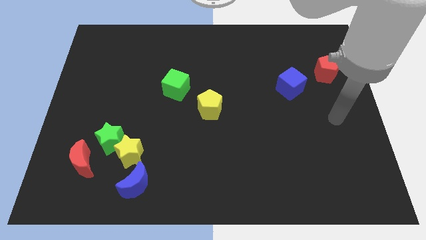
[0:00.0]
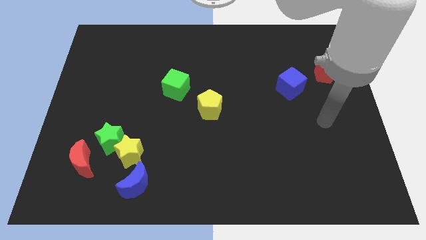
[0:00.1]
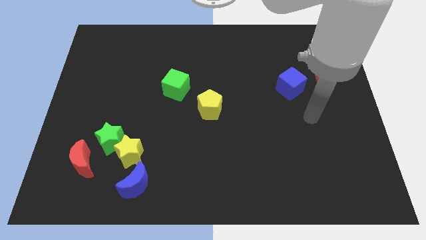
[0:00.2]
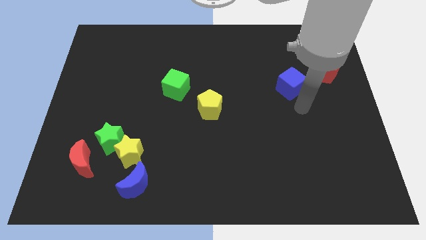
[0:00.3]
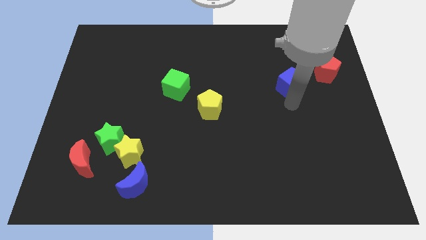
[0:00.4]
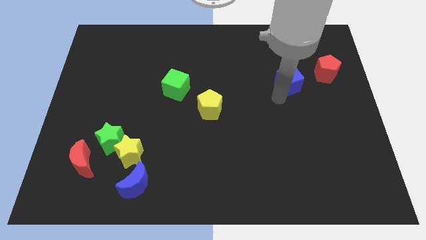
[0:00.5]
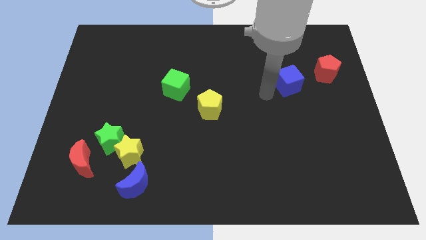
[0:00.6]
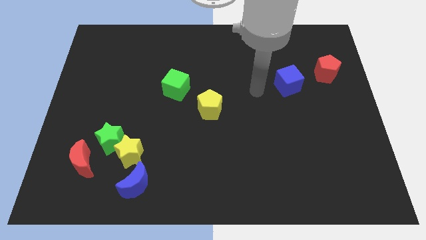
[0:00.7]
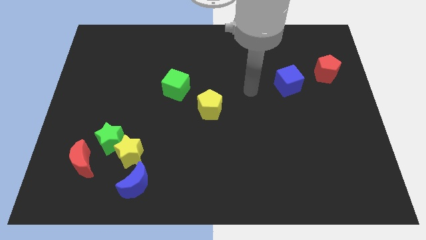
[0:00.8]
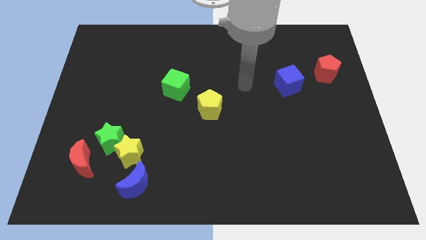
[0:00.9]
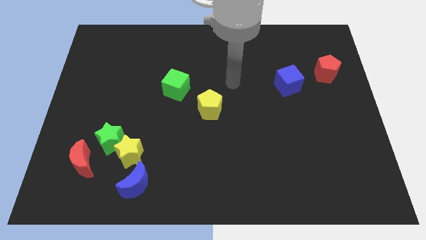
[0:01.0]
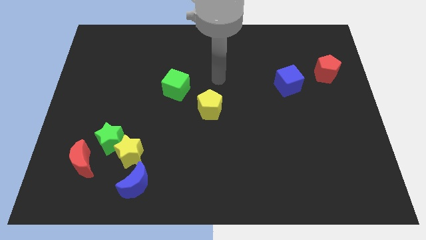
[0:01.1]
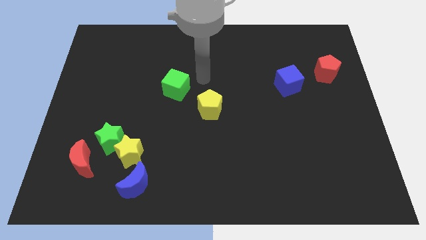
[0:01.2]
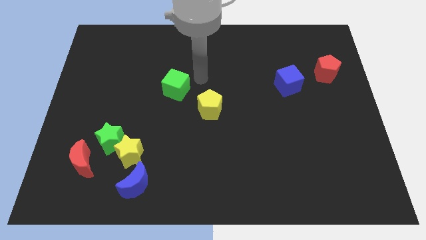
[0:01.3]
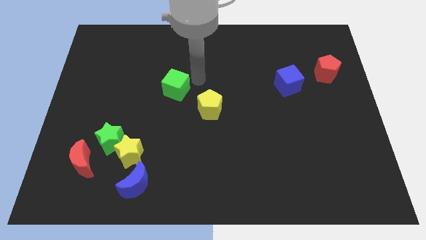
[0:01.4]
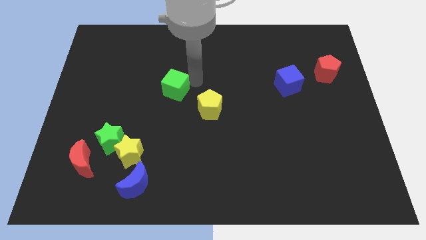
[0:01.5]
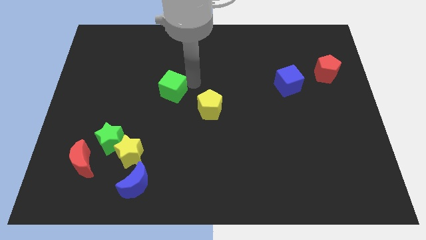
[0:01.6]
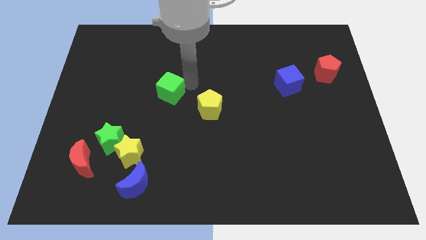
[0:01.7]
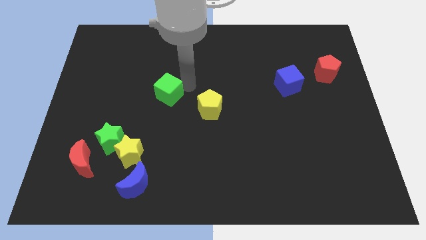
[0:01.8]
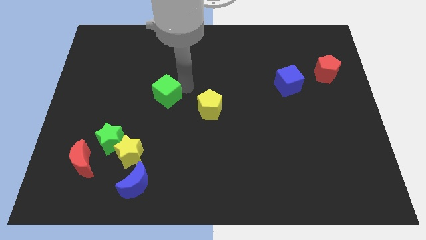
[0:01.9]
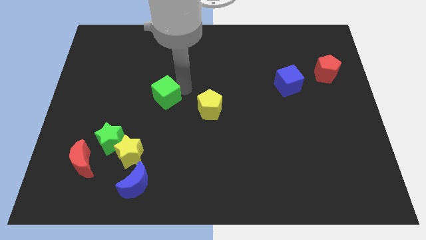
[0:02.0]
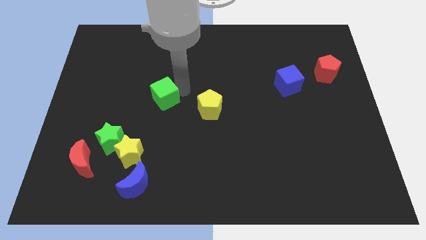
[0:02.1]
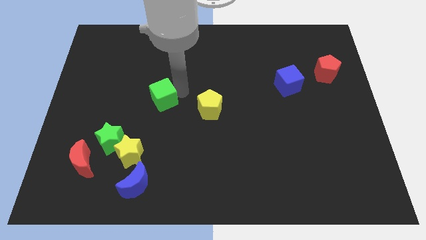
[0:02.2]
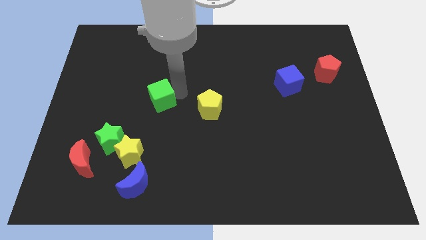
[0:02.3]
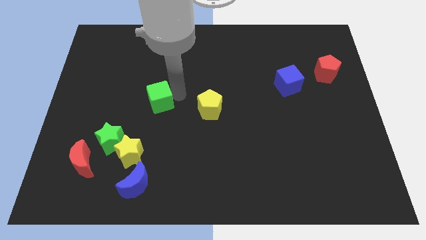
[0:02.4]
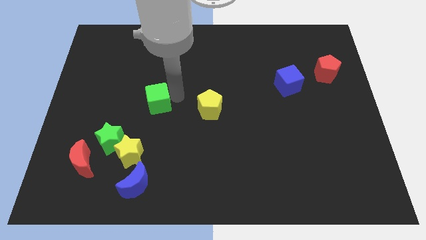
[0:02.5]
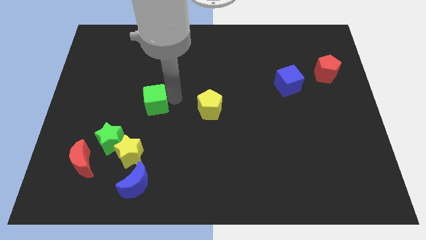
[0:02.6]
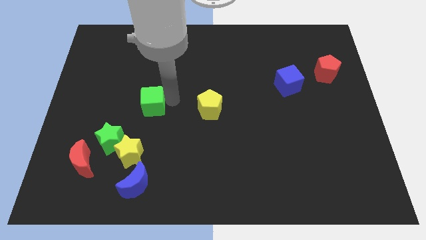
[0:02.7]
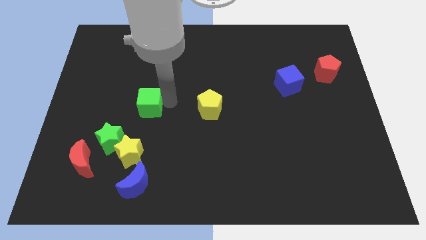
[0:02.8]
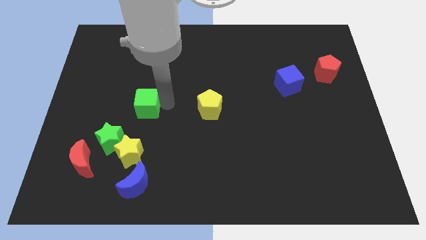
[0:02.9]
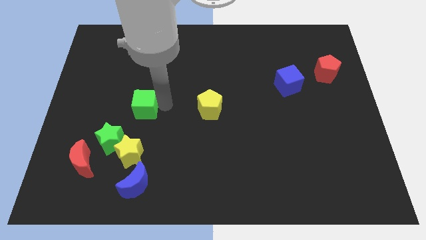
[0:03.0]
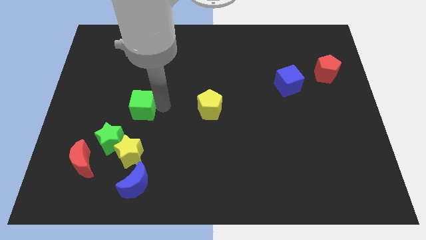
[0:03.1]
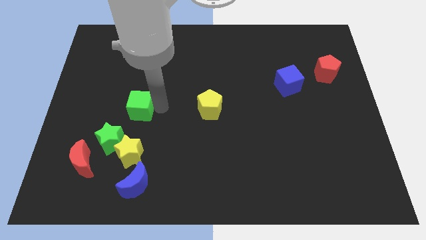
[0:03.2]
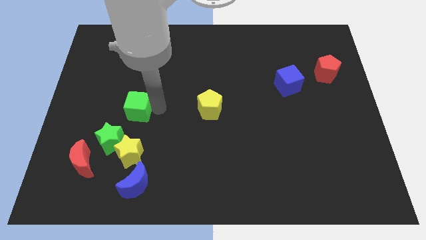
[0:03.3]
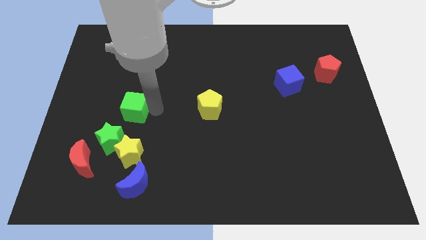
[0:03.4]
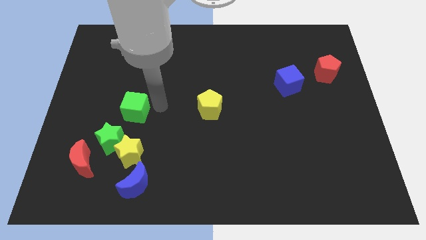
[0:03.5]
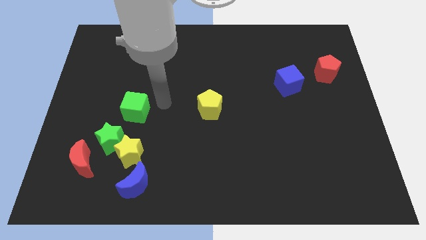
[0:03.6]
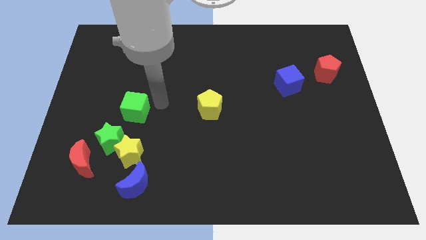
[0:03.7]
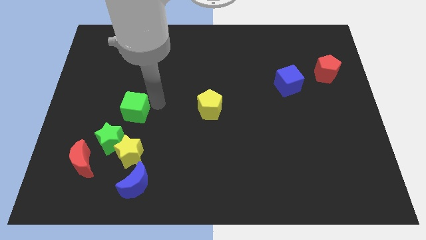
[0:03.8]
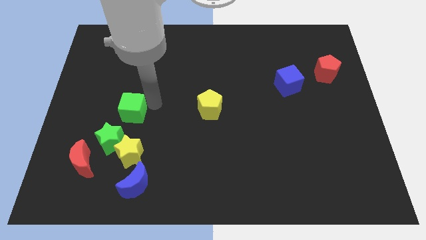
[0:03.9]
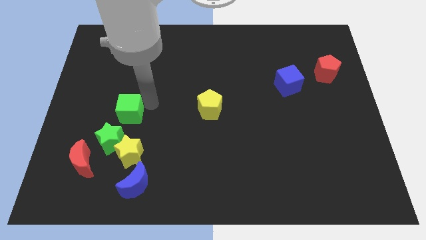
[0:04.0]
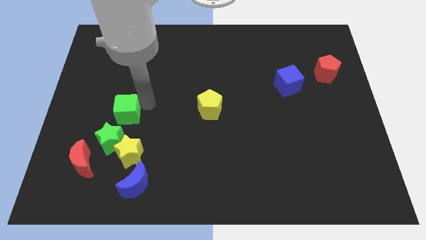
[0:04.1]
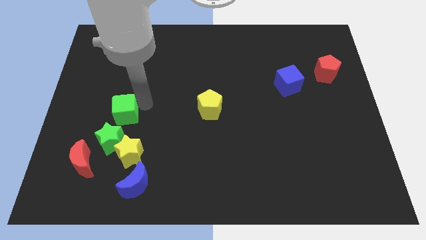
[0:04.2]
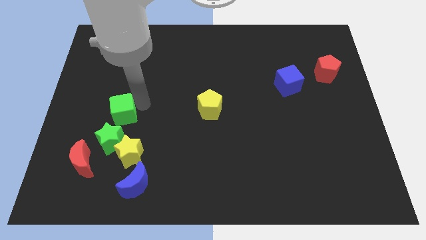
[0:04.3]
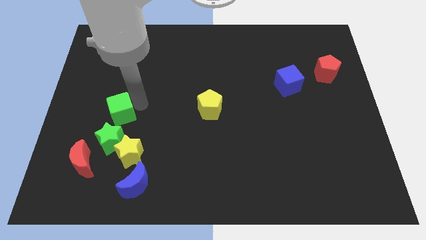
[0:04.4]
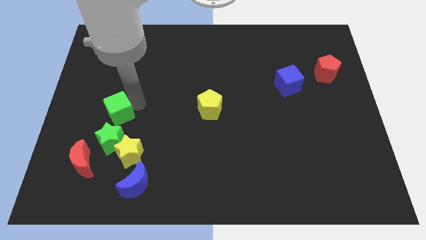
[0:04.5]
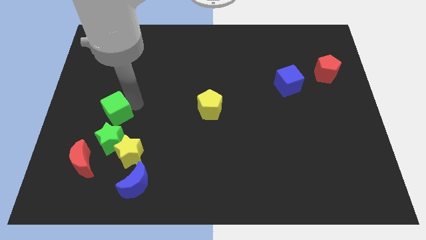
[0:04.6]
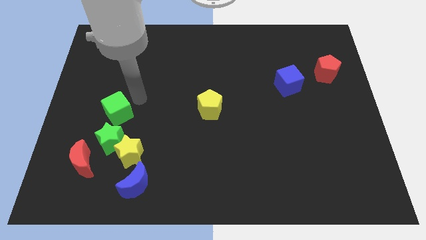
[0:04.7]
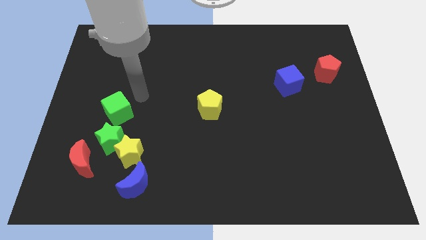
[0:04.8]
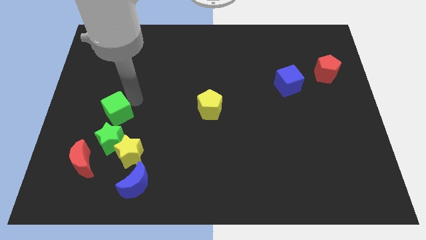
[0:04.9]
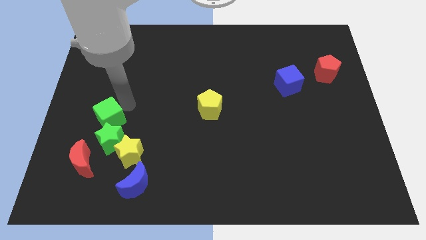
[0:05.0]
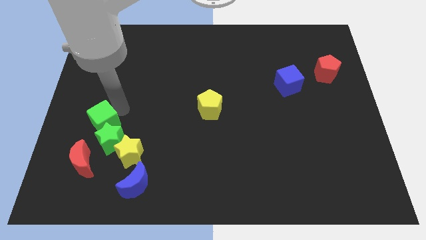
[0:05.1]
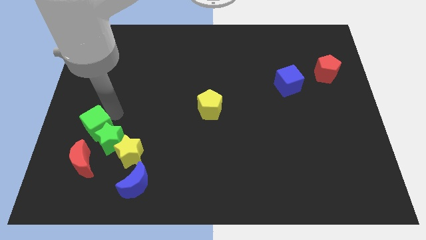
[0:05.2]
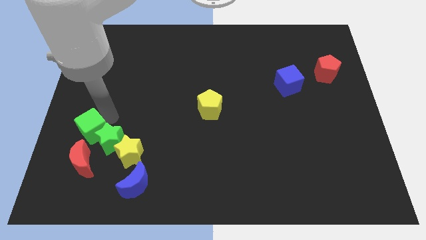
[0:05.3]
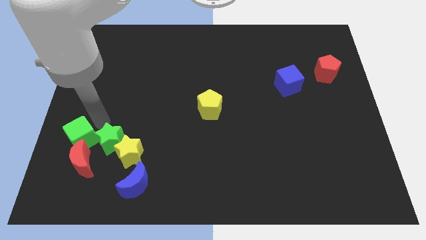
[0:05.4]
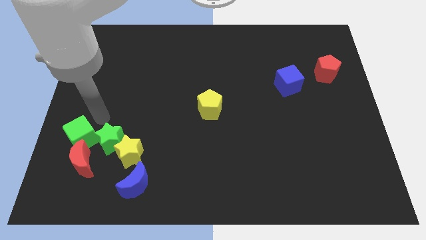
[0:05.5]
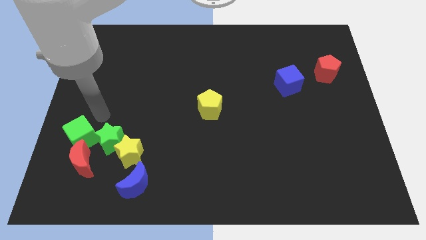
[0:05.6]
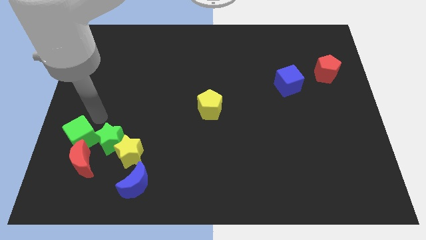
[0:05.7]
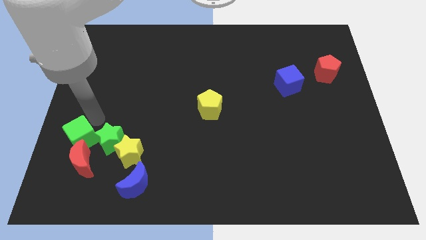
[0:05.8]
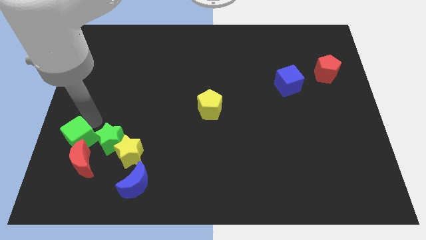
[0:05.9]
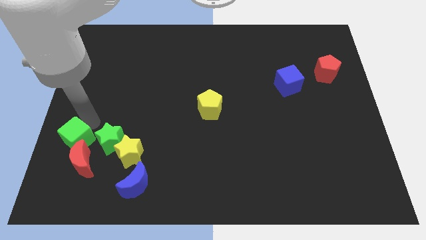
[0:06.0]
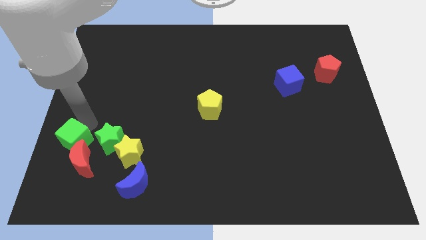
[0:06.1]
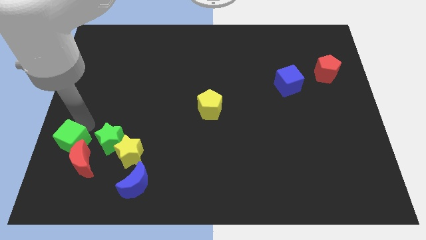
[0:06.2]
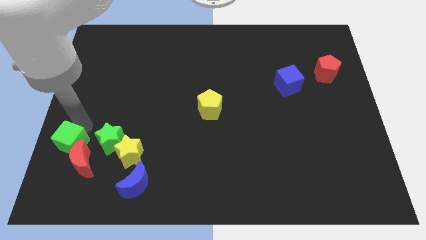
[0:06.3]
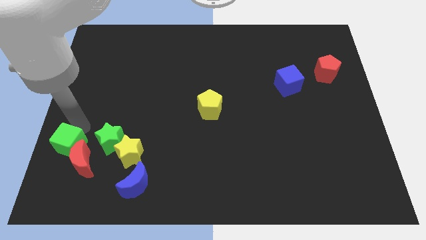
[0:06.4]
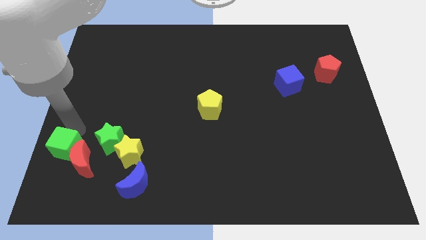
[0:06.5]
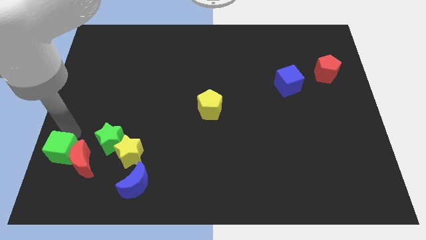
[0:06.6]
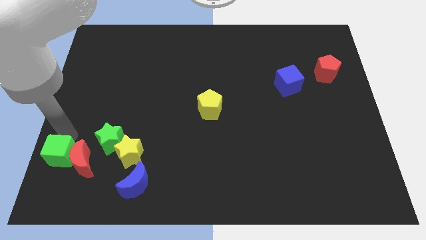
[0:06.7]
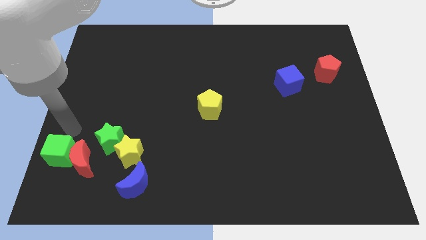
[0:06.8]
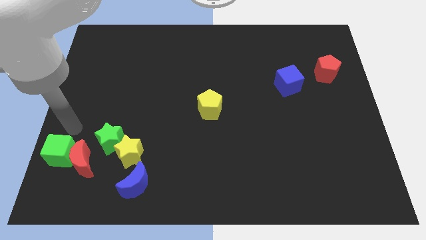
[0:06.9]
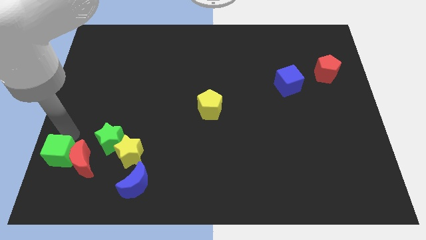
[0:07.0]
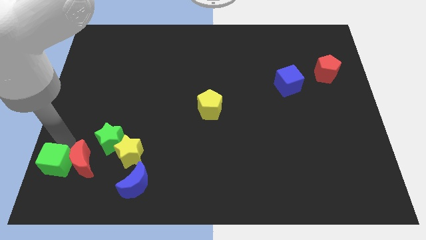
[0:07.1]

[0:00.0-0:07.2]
push the green cube to the bottom left corner

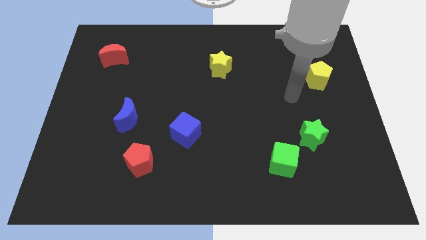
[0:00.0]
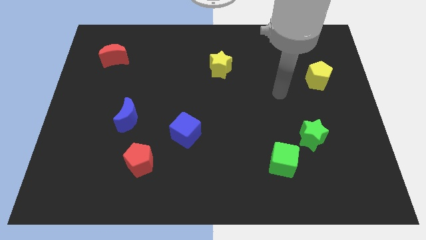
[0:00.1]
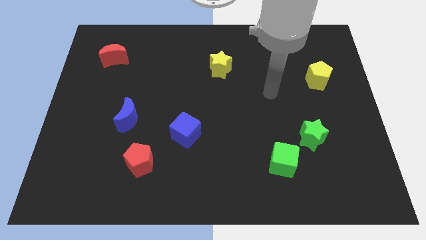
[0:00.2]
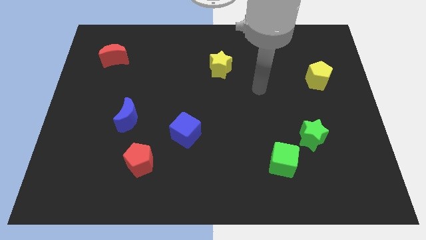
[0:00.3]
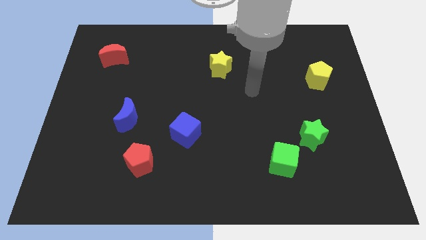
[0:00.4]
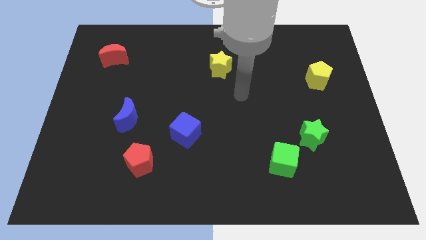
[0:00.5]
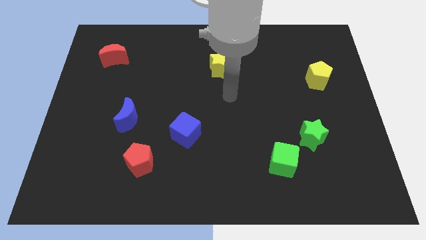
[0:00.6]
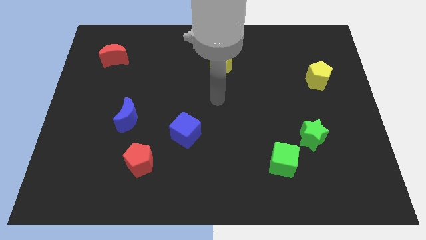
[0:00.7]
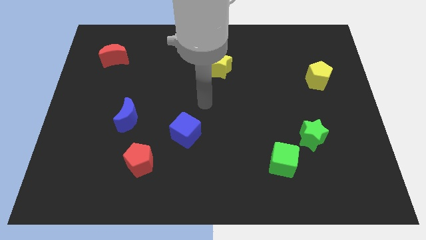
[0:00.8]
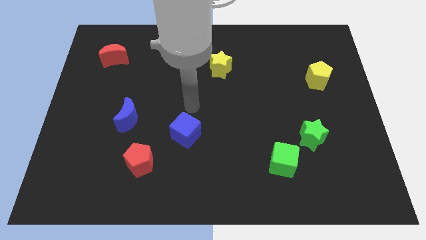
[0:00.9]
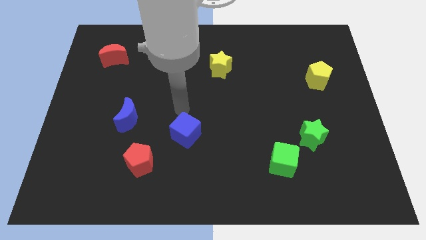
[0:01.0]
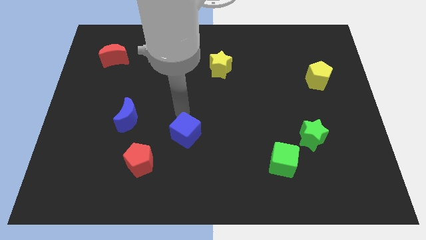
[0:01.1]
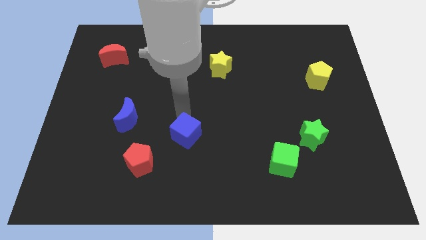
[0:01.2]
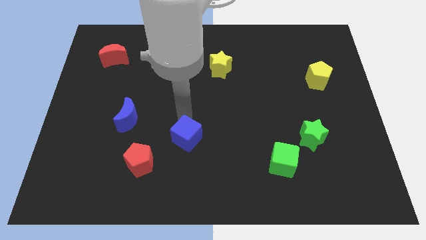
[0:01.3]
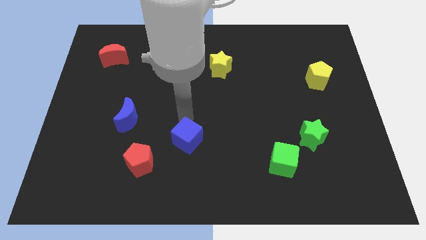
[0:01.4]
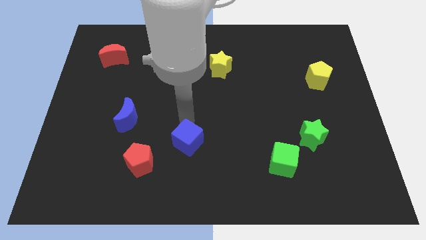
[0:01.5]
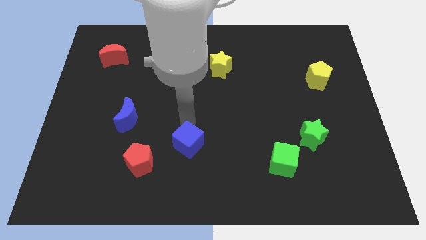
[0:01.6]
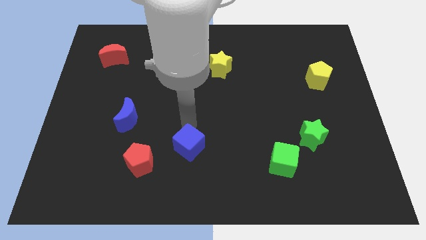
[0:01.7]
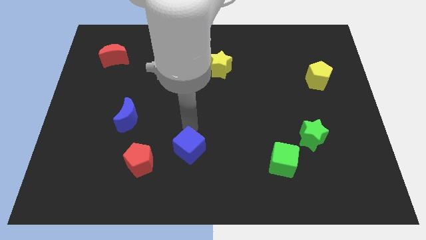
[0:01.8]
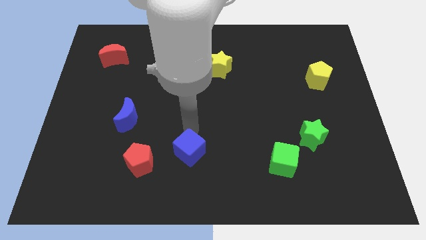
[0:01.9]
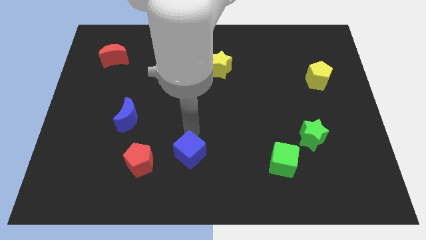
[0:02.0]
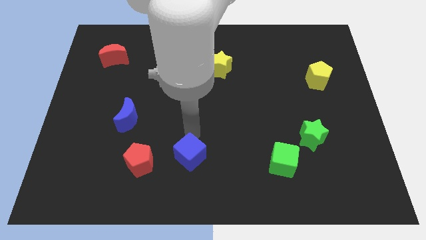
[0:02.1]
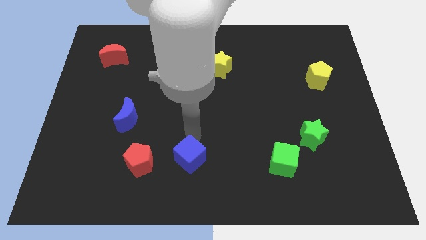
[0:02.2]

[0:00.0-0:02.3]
move the blue cube to the bottom side
